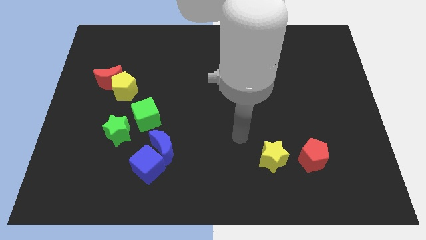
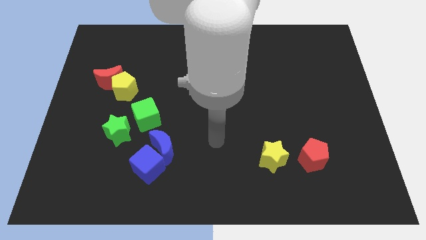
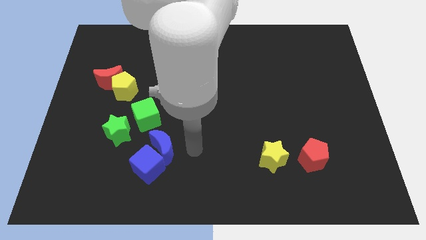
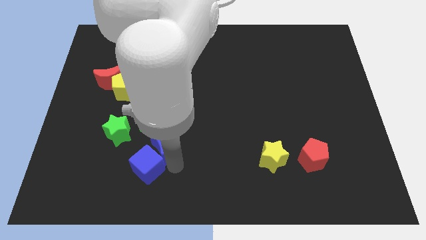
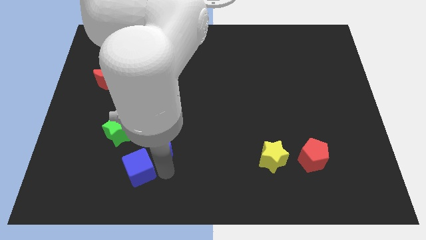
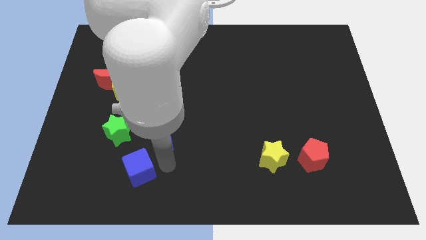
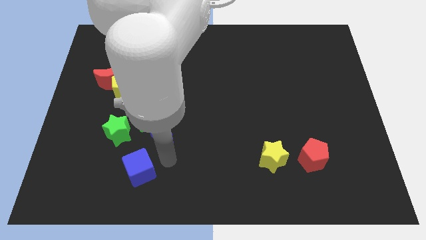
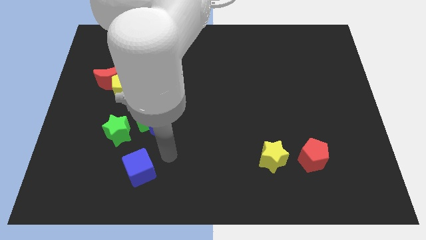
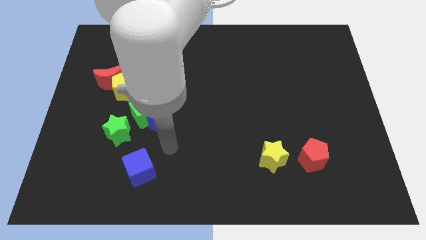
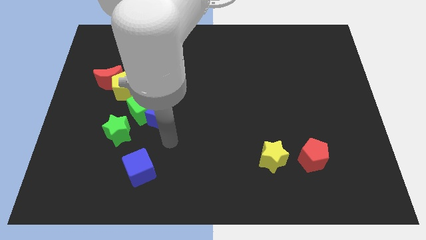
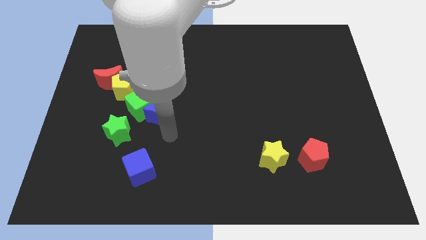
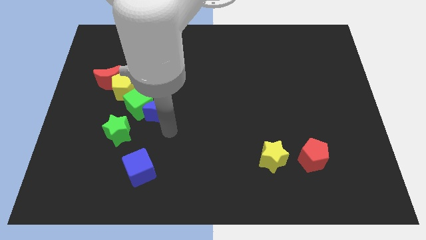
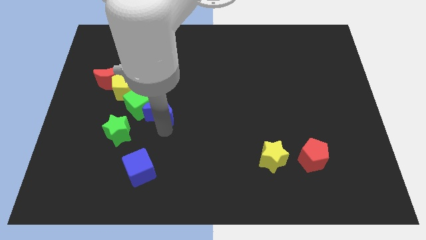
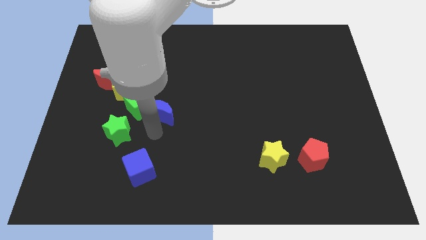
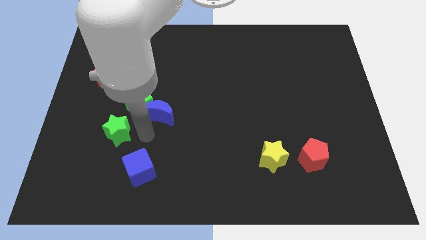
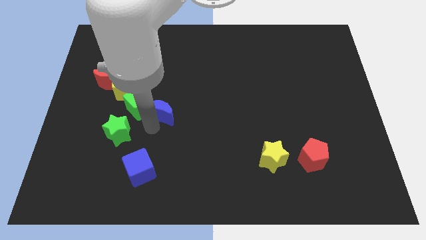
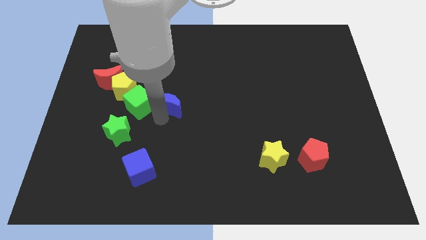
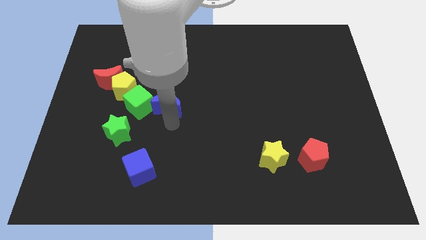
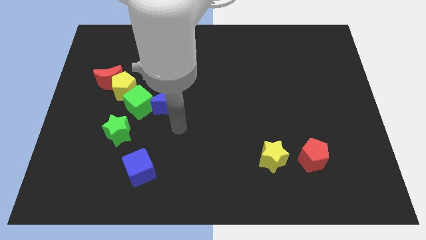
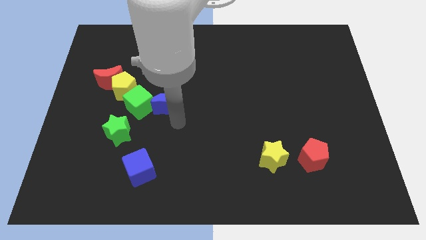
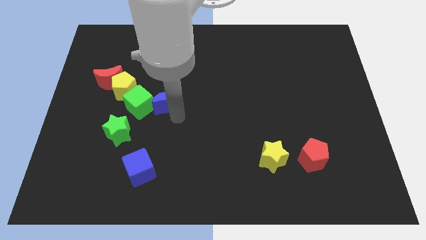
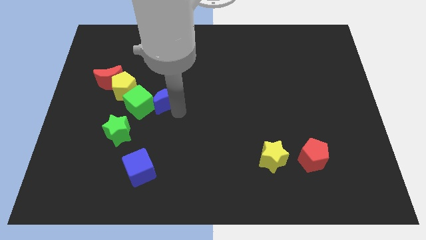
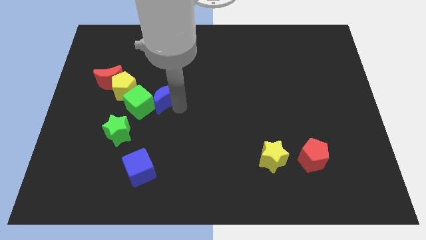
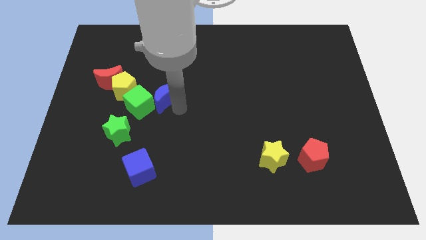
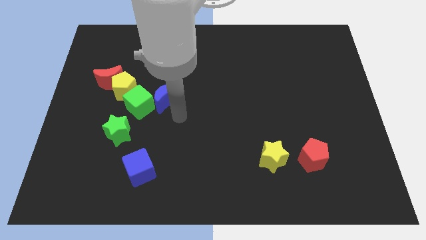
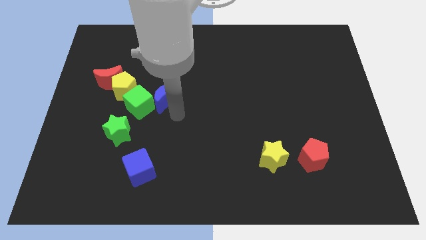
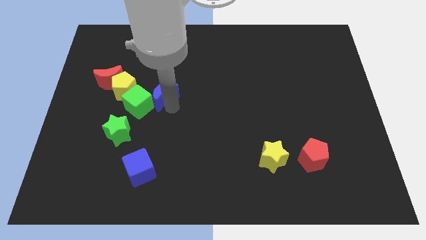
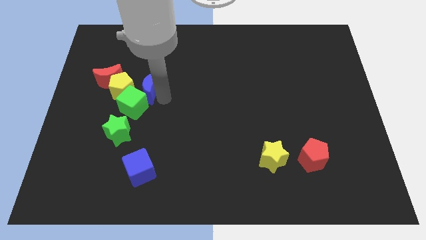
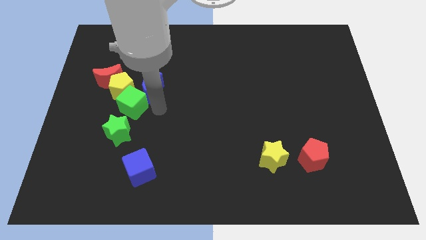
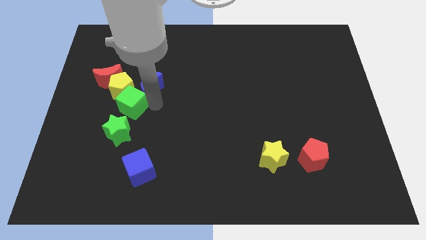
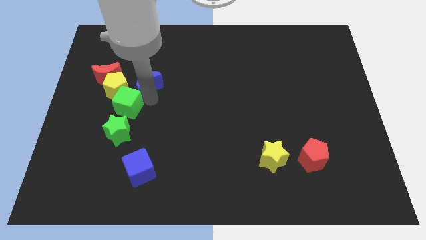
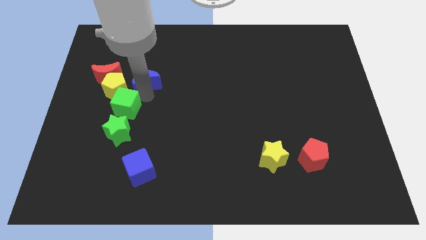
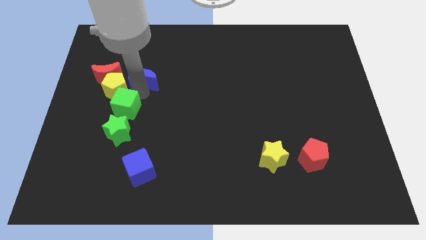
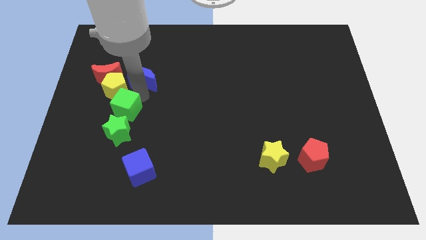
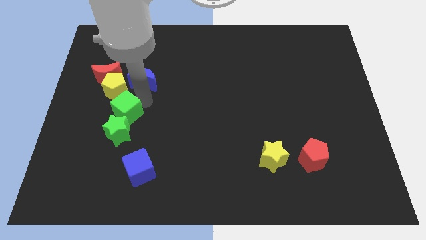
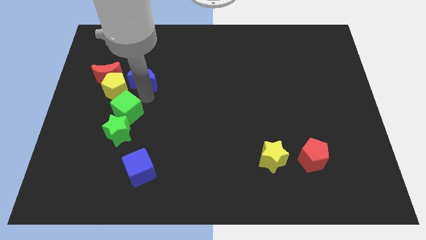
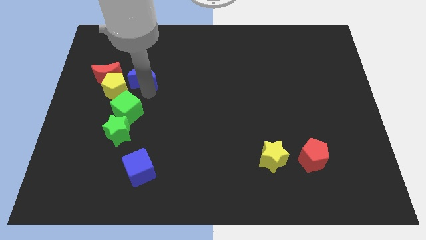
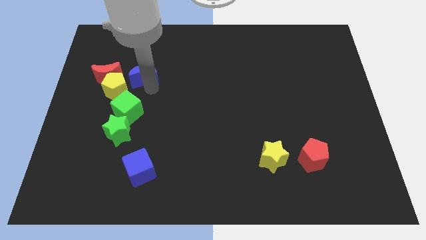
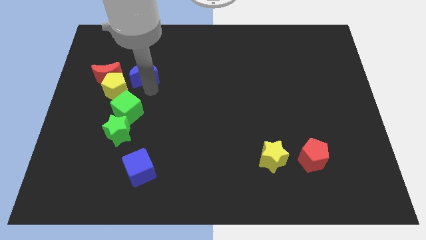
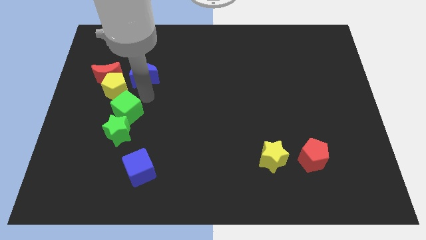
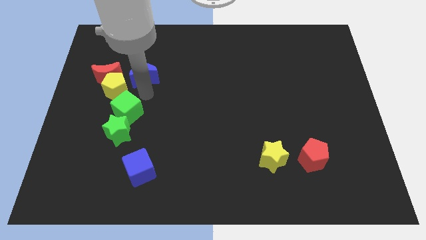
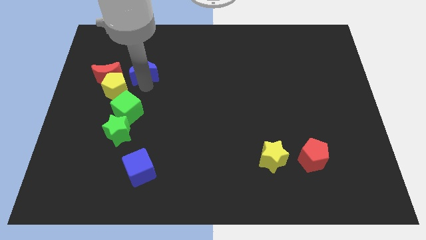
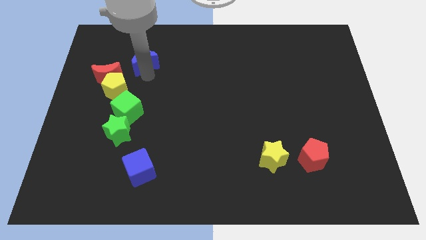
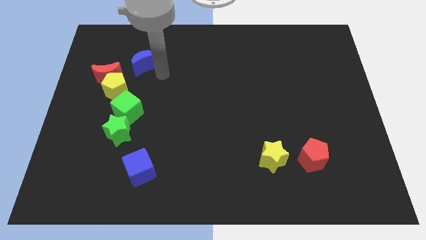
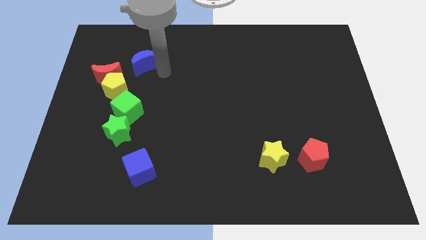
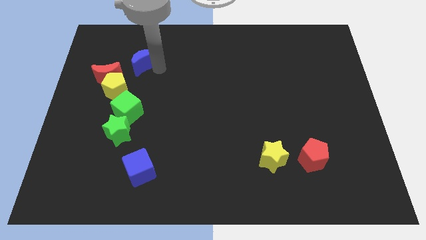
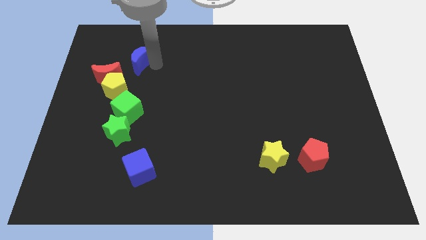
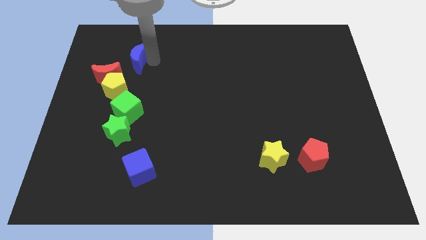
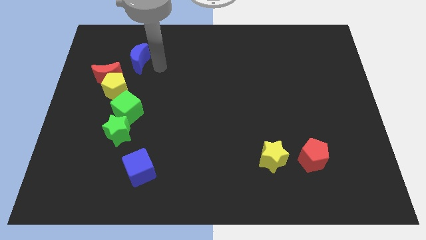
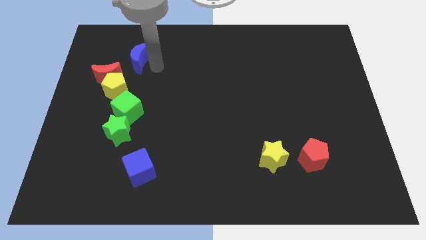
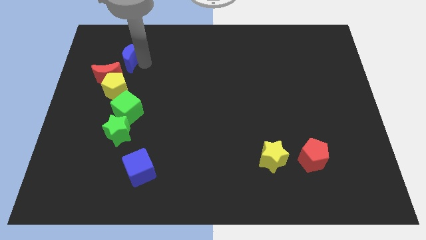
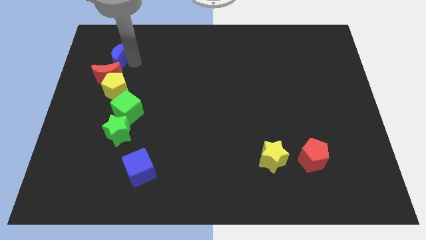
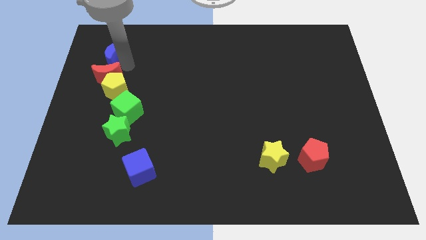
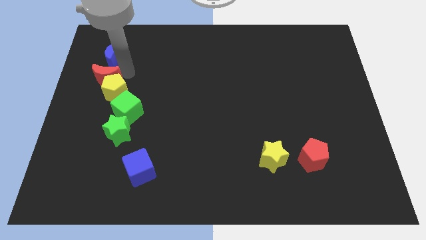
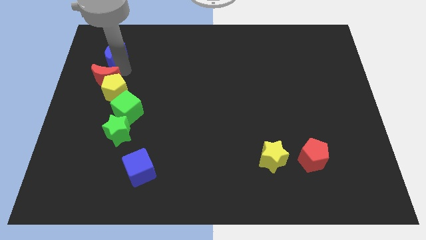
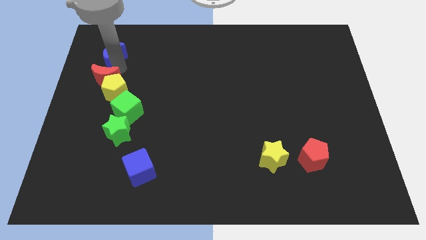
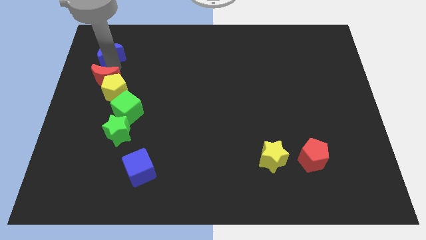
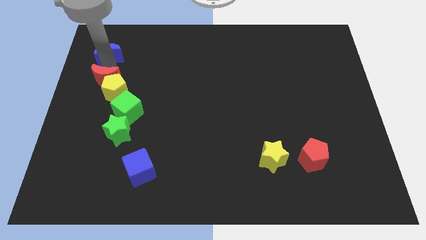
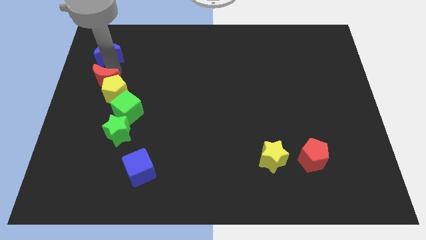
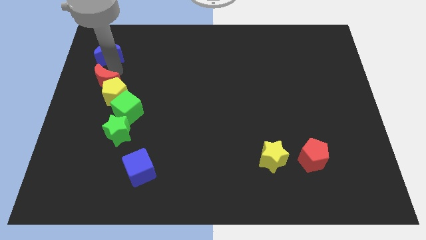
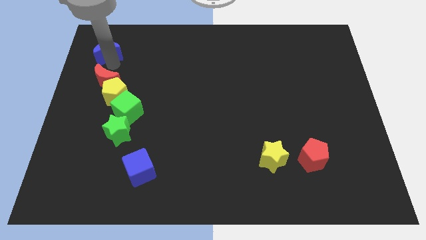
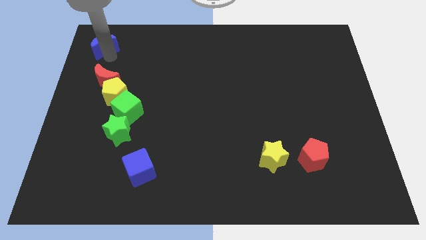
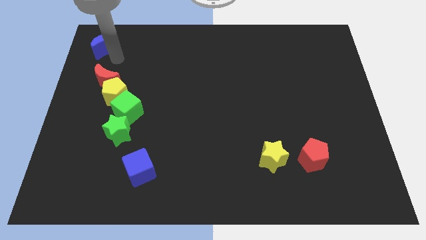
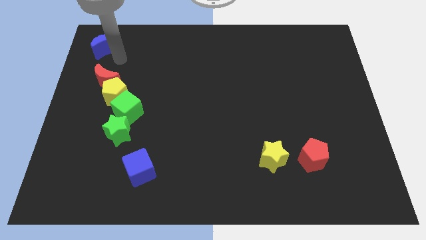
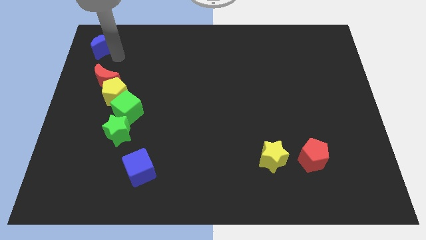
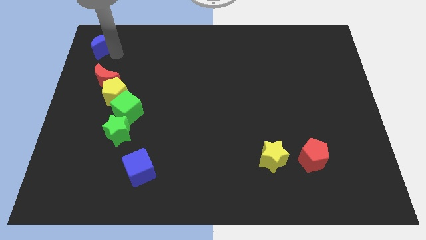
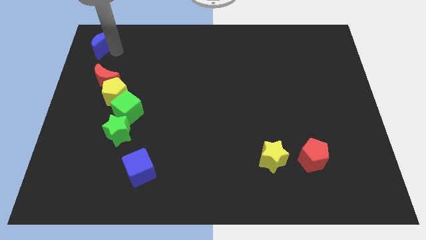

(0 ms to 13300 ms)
push the blue moon to the top left corner
